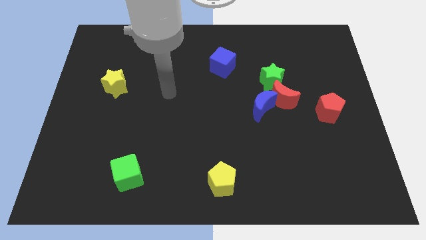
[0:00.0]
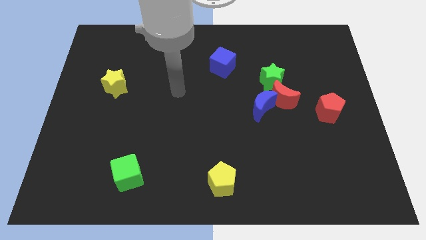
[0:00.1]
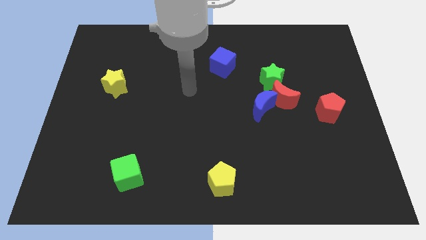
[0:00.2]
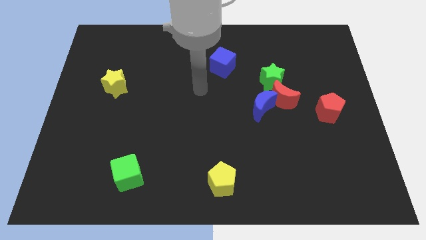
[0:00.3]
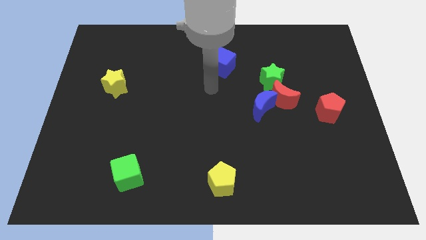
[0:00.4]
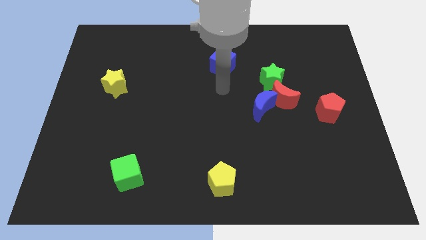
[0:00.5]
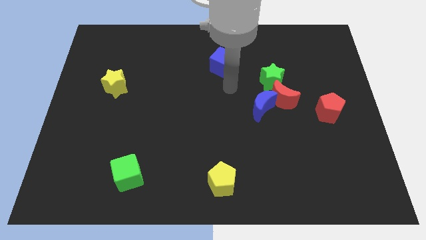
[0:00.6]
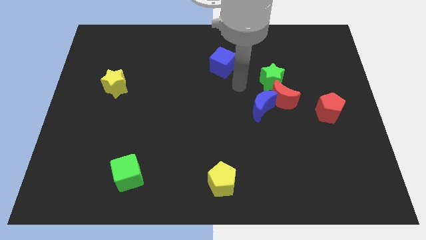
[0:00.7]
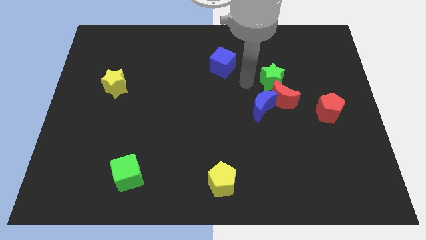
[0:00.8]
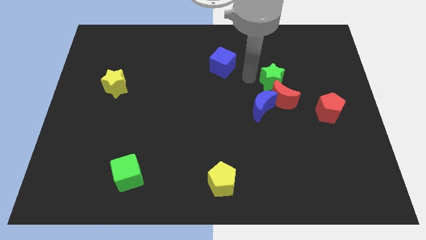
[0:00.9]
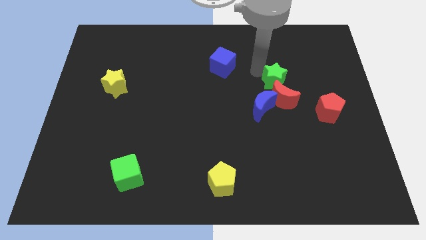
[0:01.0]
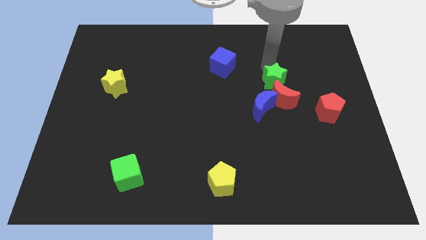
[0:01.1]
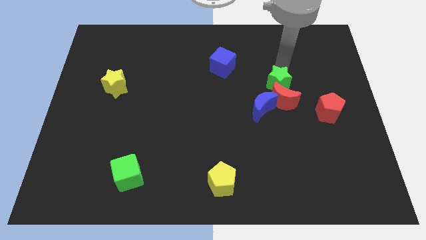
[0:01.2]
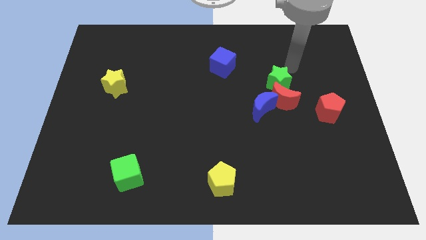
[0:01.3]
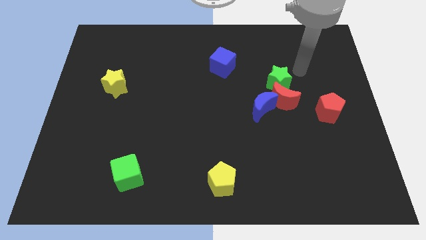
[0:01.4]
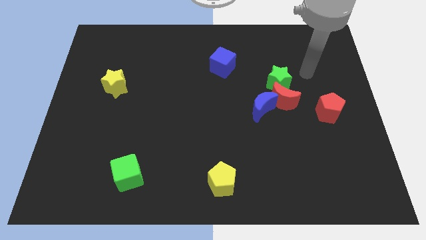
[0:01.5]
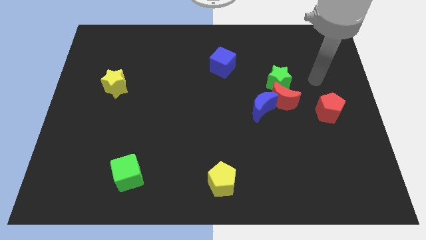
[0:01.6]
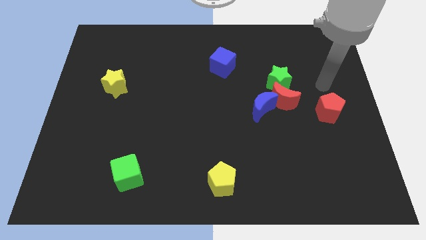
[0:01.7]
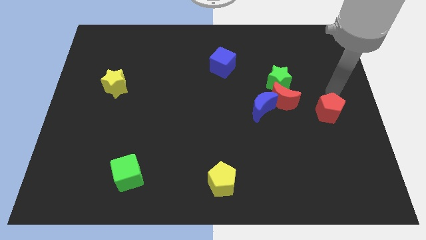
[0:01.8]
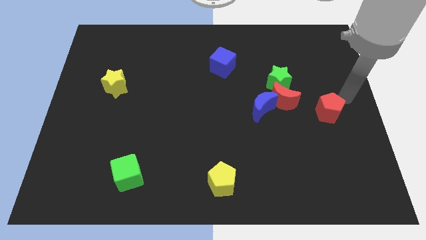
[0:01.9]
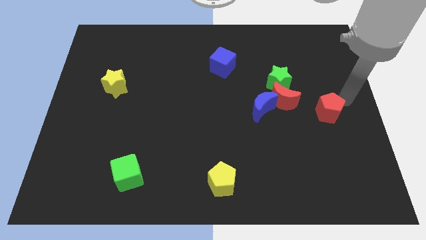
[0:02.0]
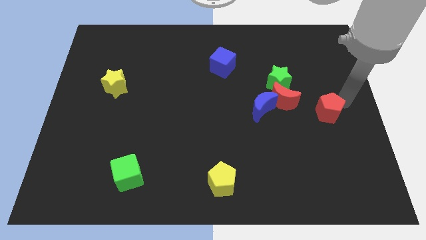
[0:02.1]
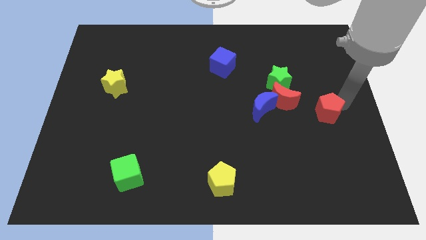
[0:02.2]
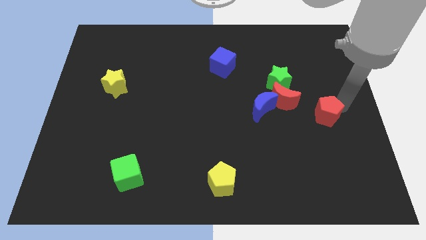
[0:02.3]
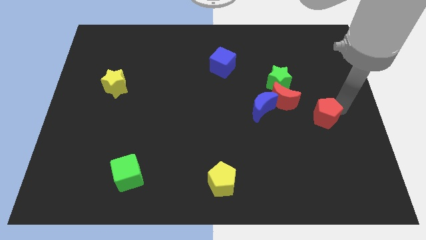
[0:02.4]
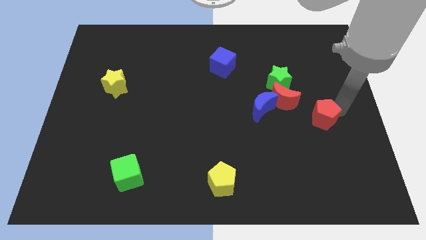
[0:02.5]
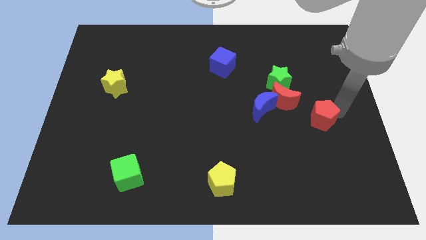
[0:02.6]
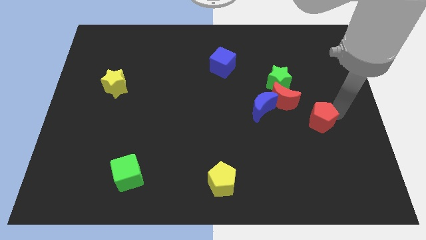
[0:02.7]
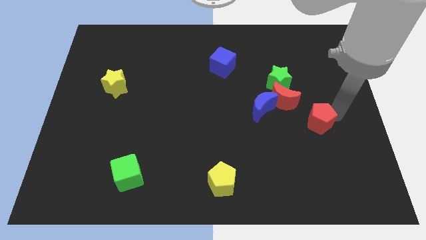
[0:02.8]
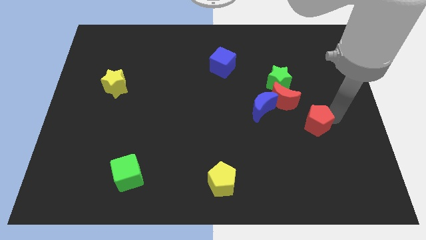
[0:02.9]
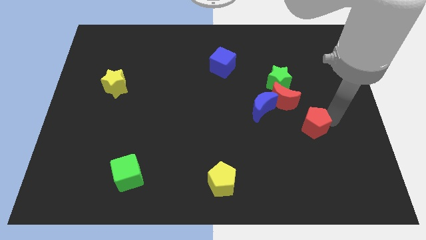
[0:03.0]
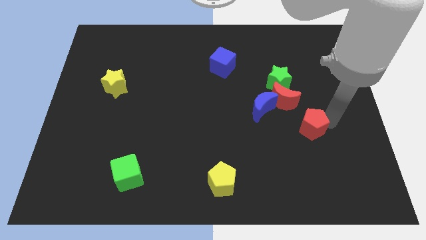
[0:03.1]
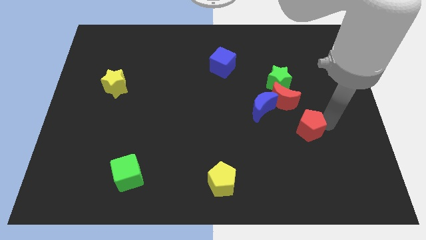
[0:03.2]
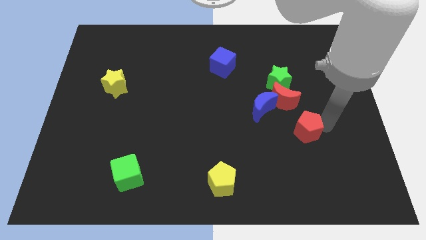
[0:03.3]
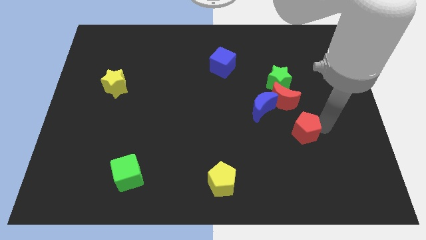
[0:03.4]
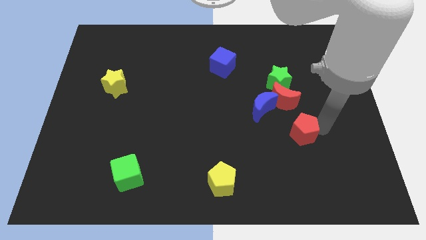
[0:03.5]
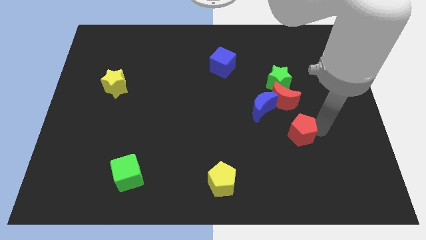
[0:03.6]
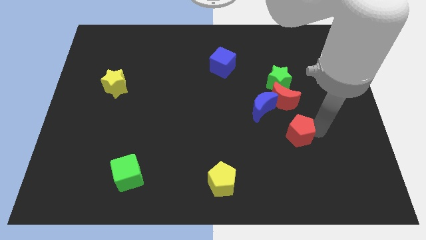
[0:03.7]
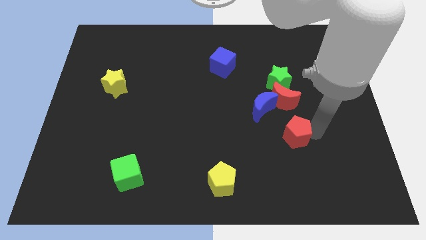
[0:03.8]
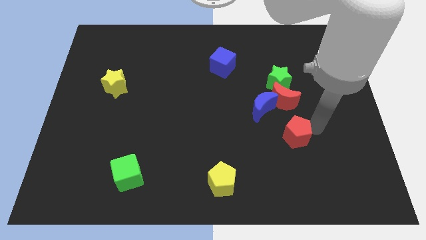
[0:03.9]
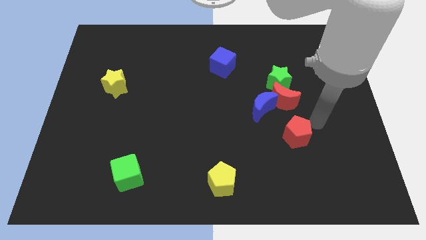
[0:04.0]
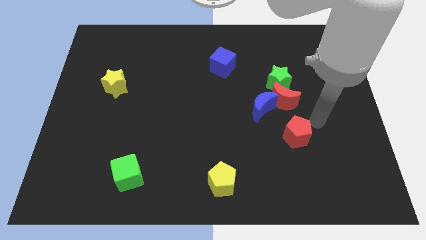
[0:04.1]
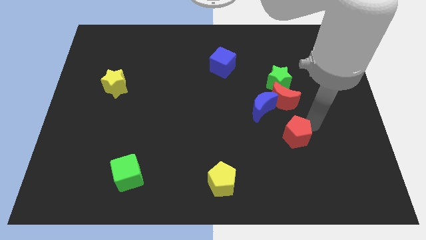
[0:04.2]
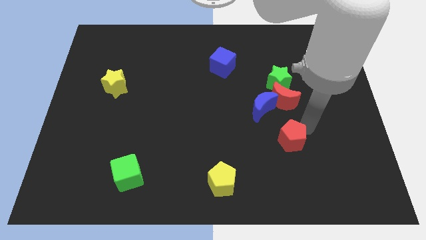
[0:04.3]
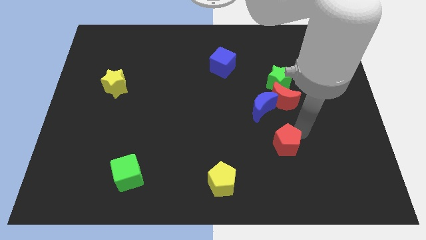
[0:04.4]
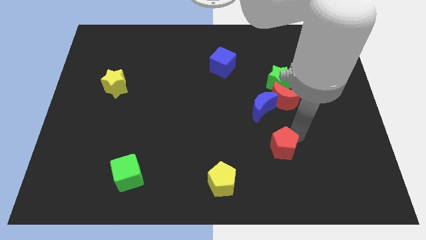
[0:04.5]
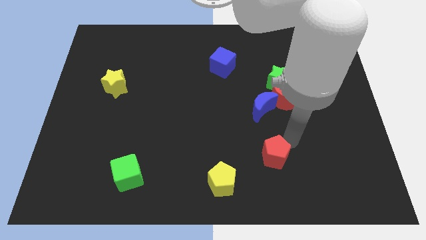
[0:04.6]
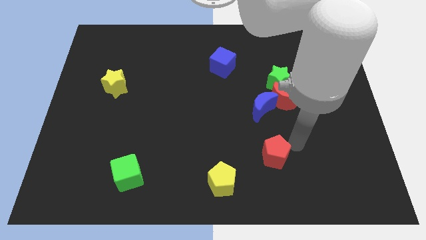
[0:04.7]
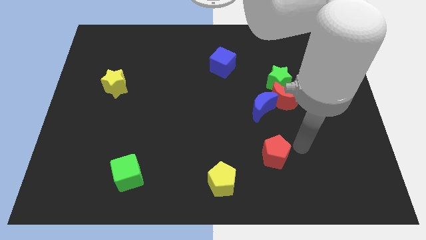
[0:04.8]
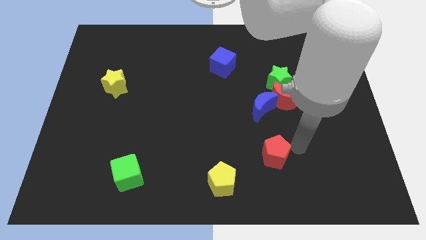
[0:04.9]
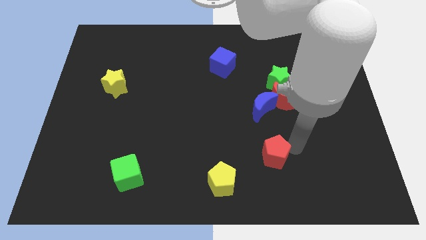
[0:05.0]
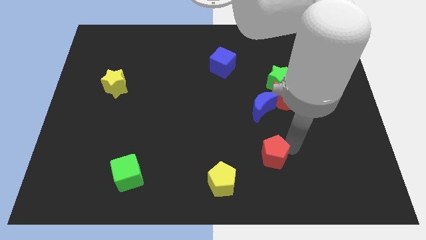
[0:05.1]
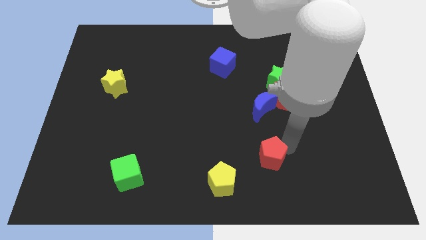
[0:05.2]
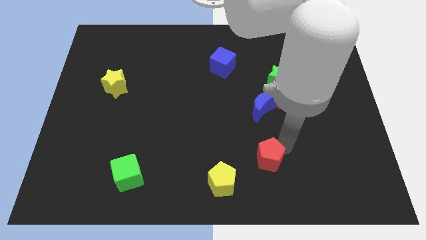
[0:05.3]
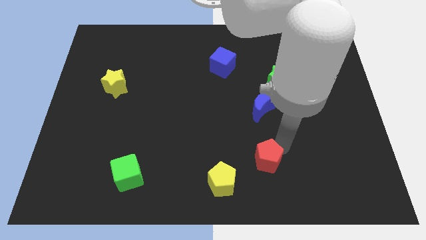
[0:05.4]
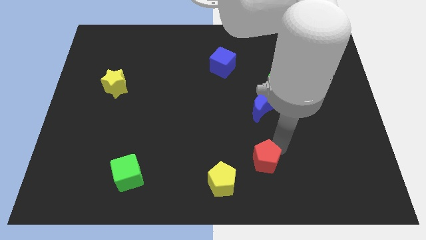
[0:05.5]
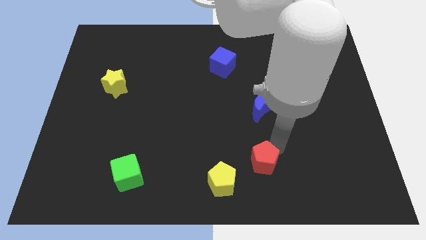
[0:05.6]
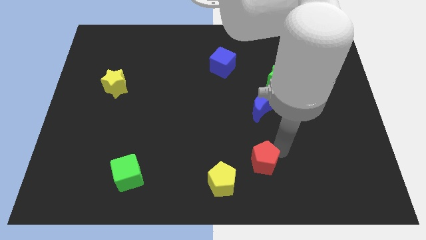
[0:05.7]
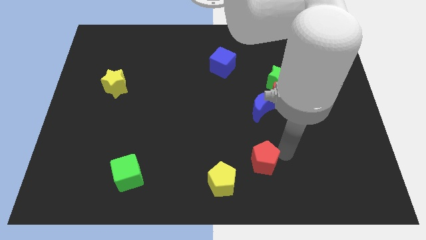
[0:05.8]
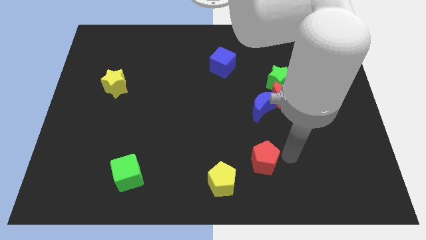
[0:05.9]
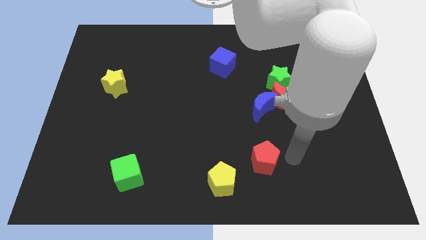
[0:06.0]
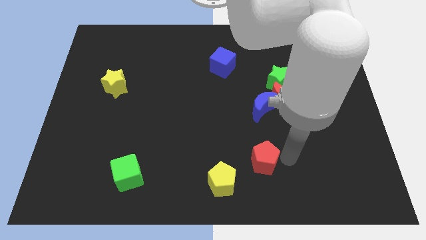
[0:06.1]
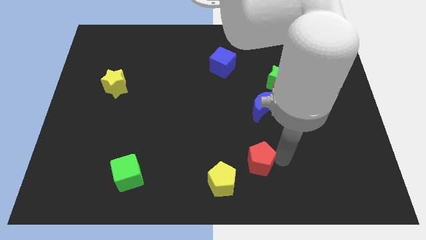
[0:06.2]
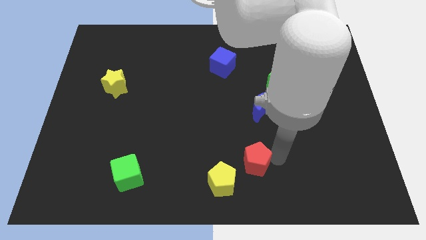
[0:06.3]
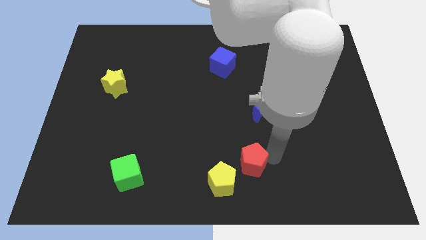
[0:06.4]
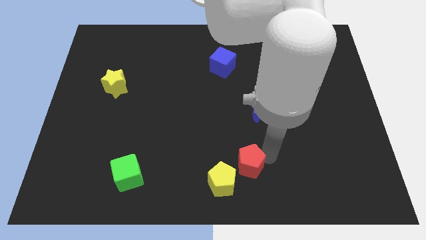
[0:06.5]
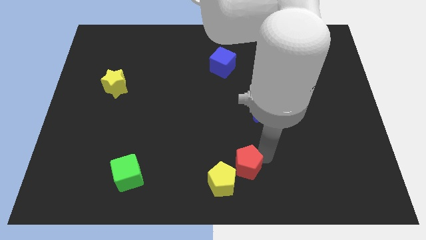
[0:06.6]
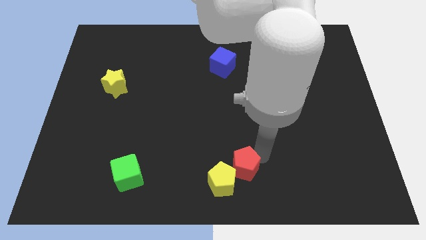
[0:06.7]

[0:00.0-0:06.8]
slide the red pentagon to the yellow pentagon

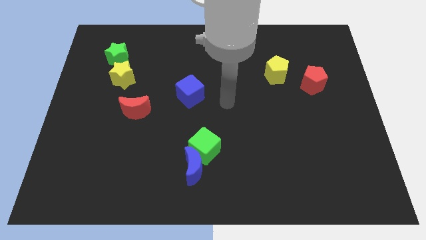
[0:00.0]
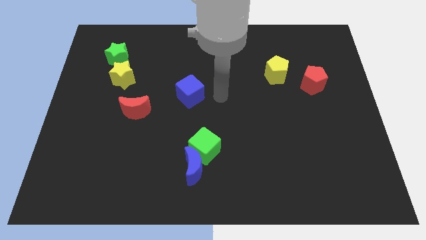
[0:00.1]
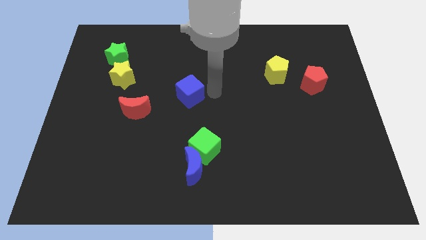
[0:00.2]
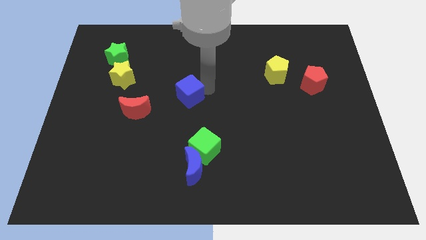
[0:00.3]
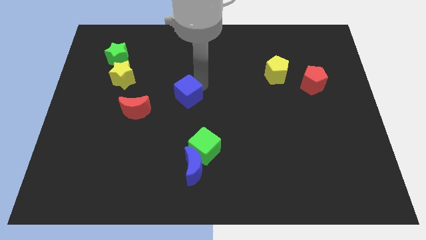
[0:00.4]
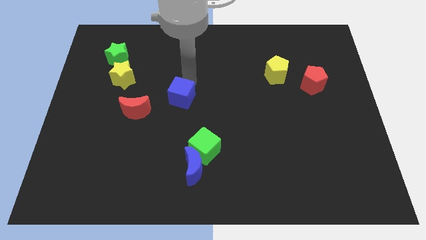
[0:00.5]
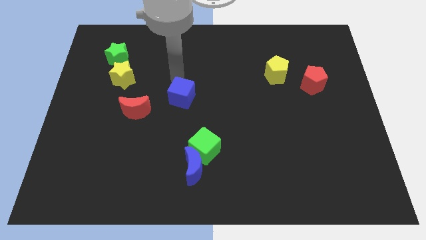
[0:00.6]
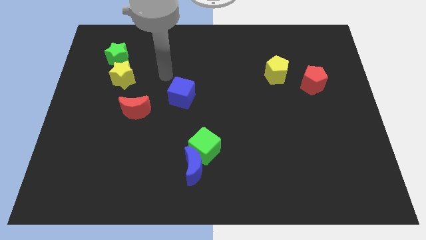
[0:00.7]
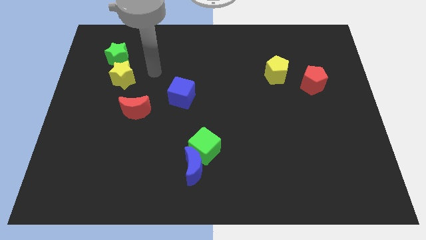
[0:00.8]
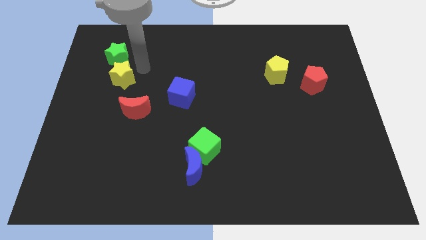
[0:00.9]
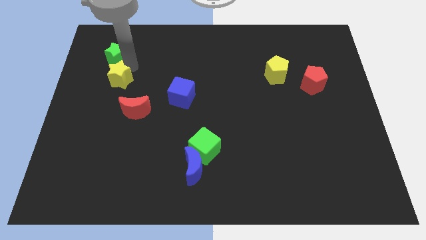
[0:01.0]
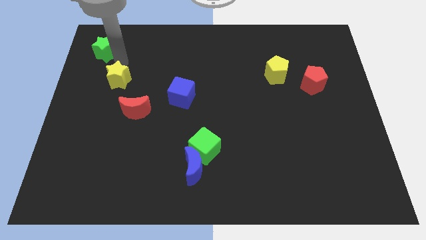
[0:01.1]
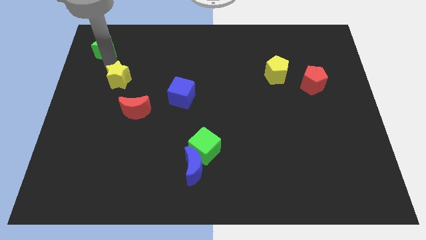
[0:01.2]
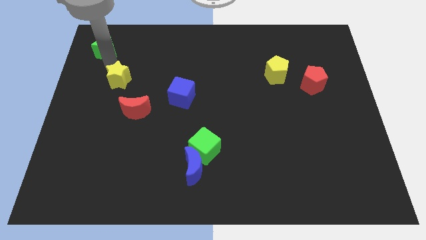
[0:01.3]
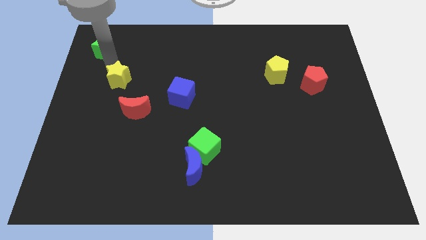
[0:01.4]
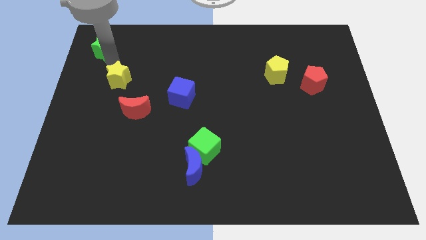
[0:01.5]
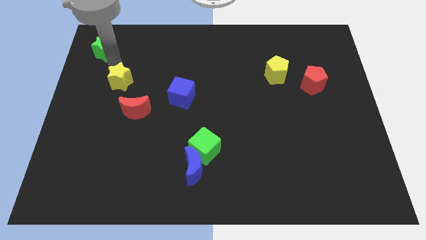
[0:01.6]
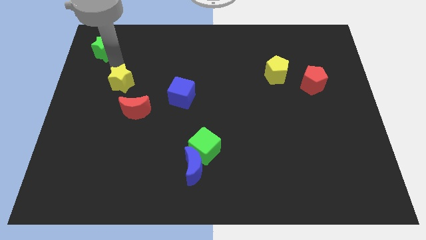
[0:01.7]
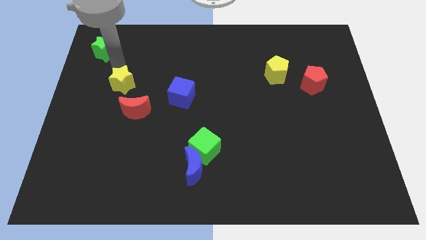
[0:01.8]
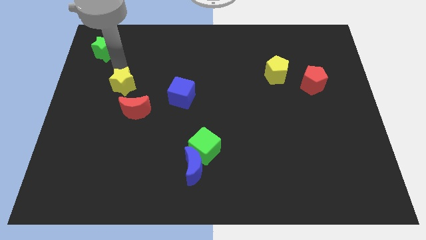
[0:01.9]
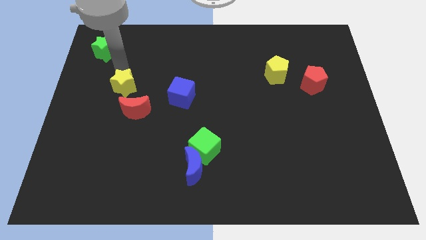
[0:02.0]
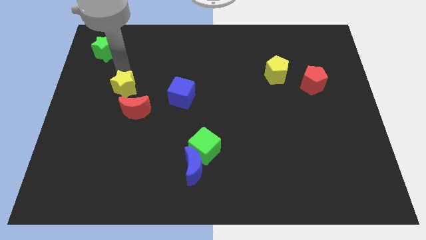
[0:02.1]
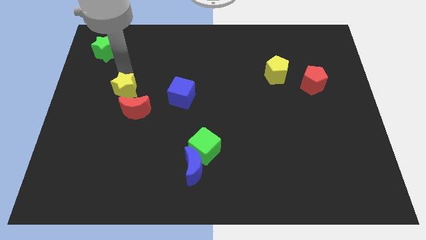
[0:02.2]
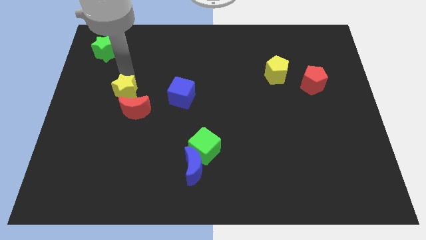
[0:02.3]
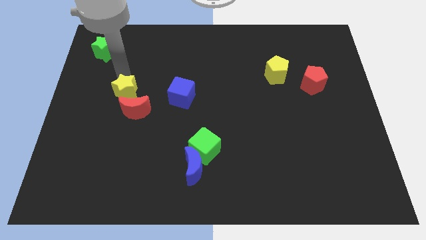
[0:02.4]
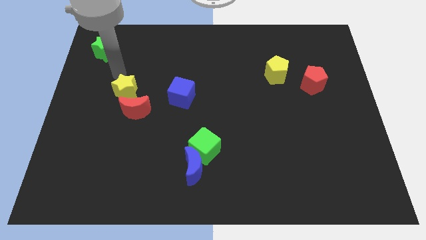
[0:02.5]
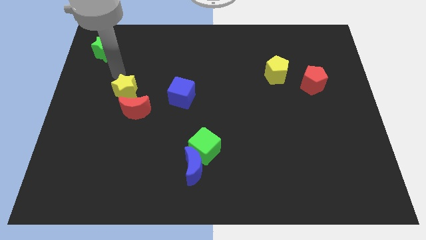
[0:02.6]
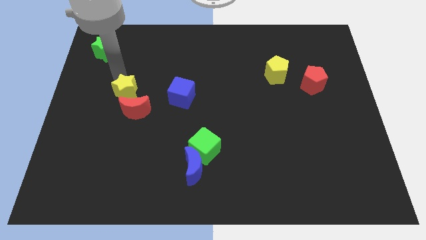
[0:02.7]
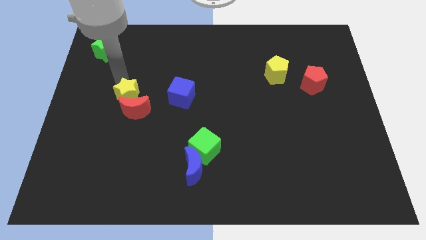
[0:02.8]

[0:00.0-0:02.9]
move the yellow star close to the red moon
